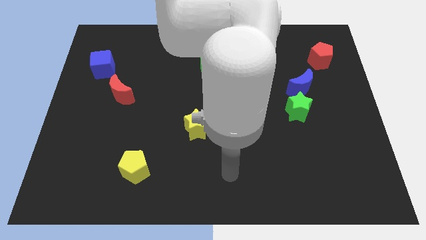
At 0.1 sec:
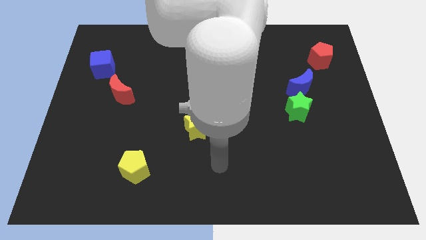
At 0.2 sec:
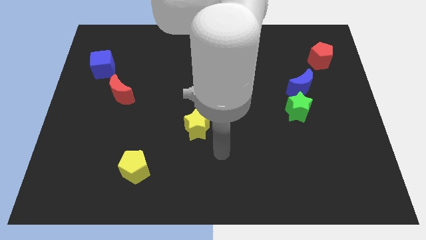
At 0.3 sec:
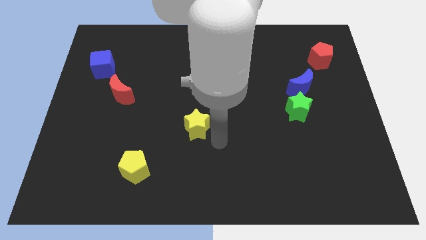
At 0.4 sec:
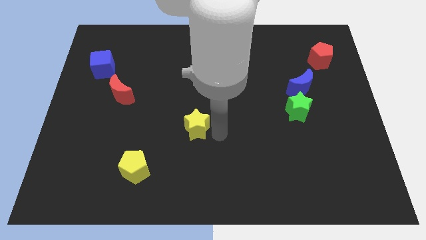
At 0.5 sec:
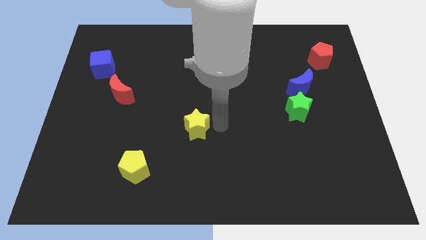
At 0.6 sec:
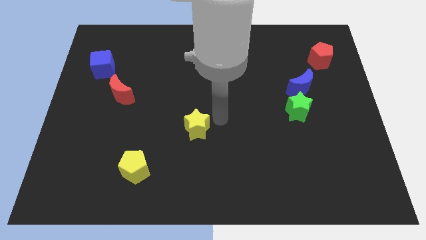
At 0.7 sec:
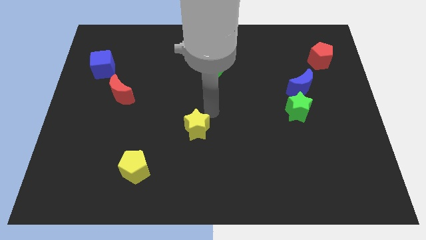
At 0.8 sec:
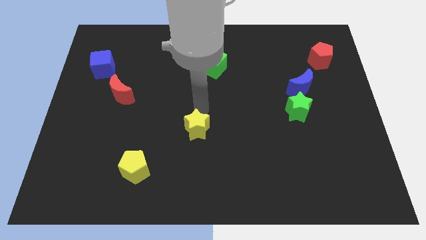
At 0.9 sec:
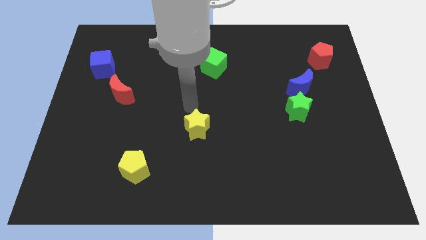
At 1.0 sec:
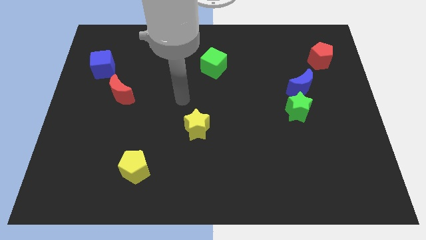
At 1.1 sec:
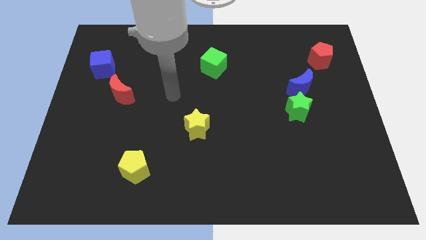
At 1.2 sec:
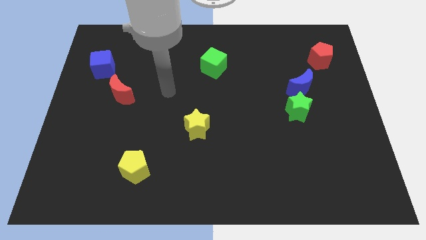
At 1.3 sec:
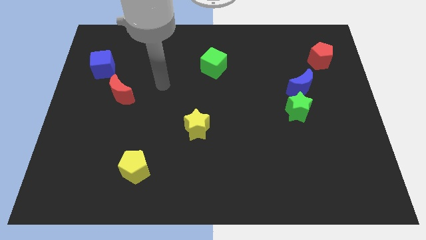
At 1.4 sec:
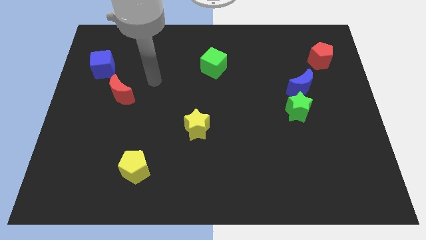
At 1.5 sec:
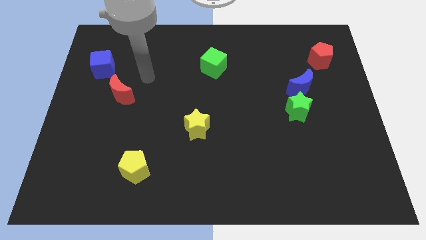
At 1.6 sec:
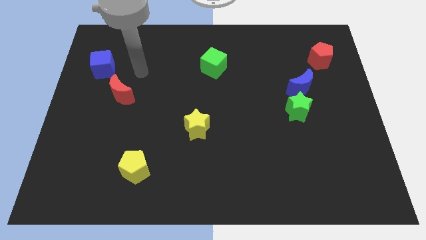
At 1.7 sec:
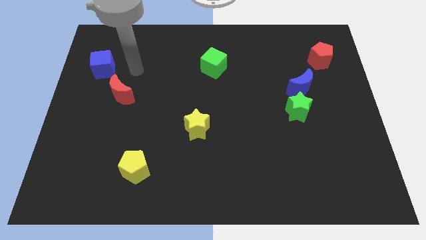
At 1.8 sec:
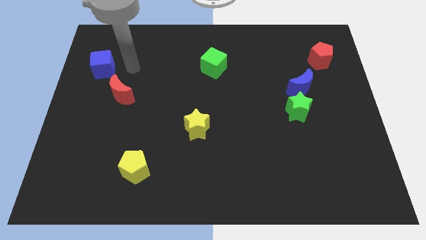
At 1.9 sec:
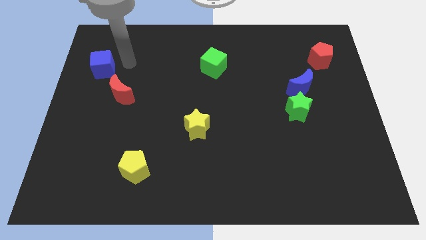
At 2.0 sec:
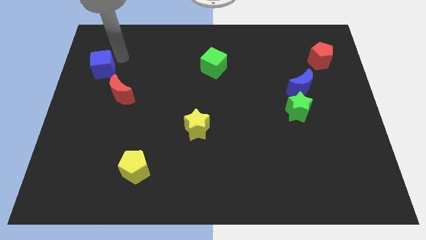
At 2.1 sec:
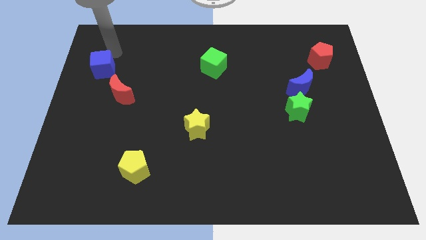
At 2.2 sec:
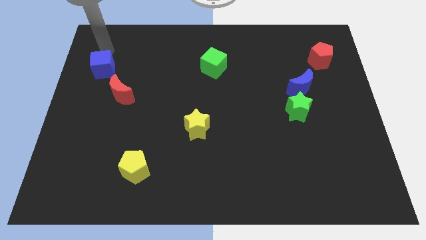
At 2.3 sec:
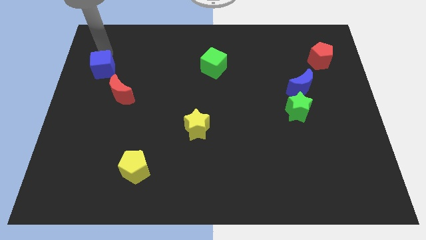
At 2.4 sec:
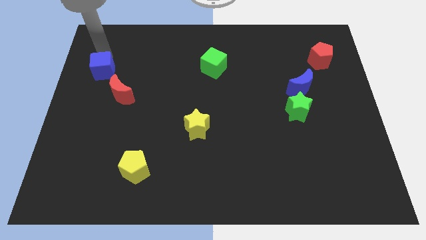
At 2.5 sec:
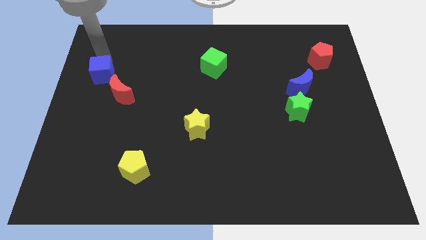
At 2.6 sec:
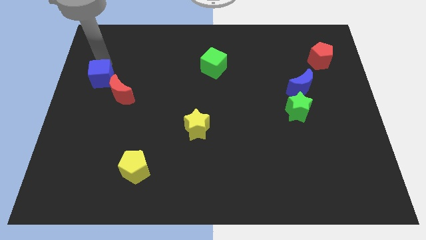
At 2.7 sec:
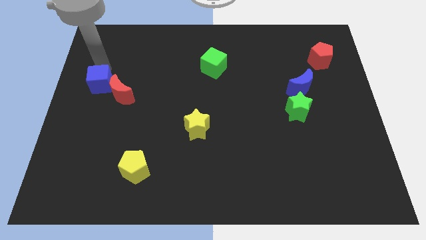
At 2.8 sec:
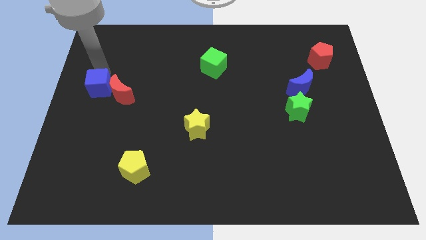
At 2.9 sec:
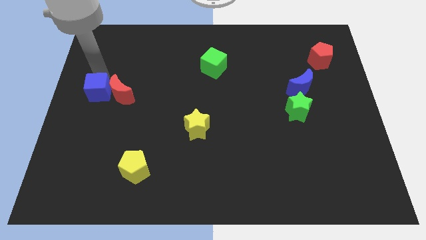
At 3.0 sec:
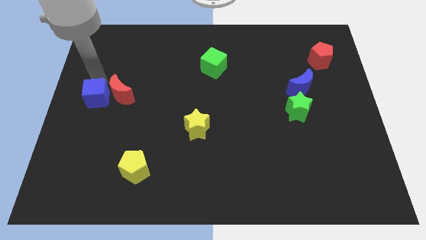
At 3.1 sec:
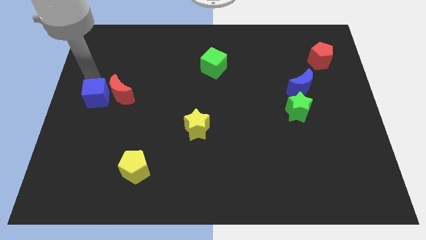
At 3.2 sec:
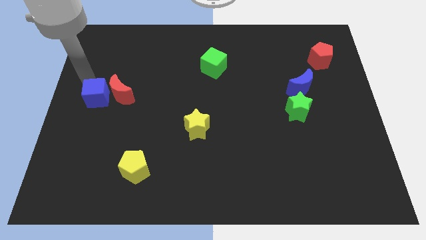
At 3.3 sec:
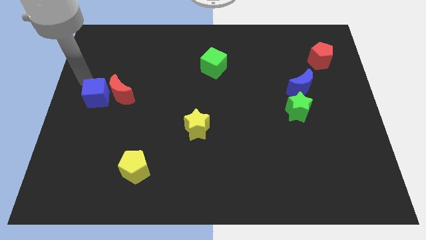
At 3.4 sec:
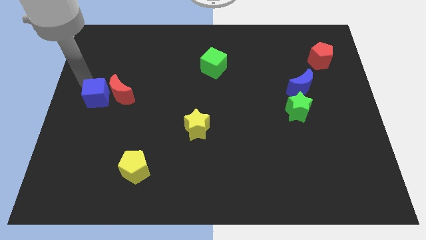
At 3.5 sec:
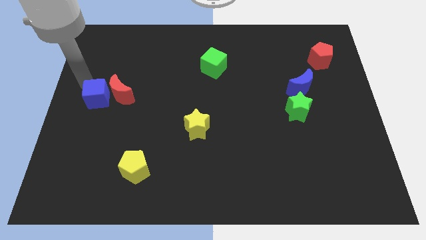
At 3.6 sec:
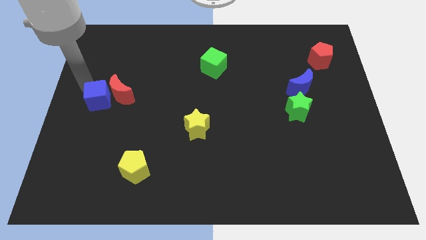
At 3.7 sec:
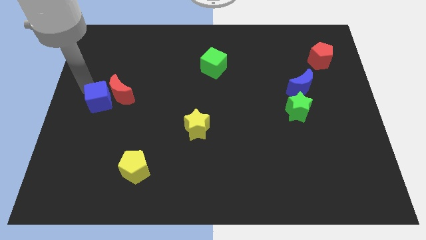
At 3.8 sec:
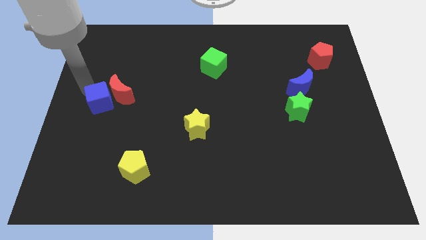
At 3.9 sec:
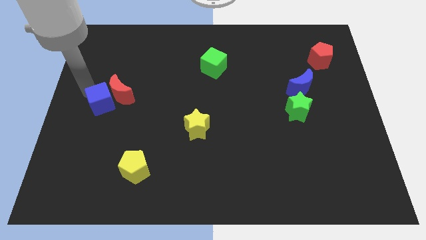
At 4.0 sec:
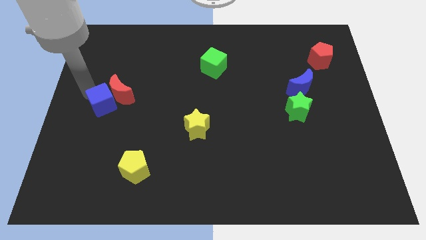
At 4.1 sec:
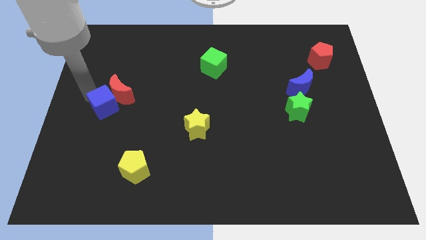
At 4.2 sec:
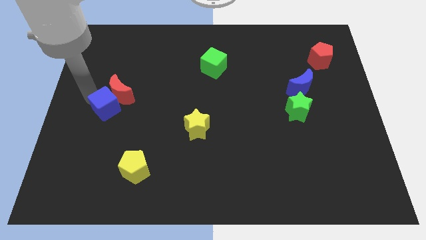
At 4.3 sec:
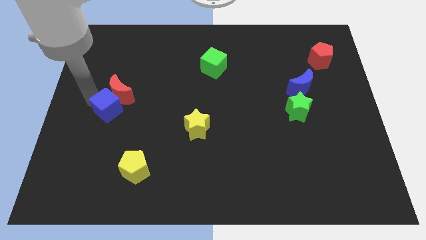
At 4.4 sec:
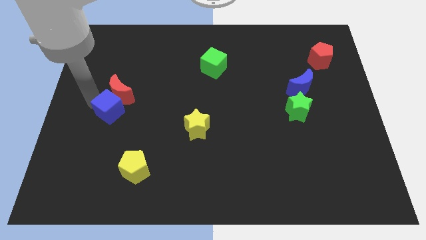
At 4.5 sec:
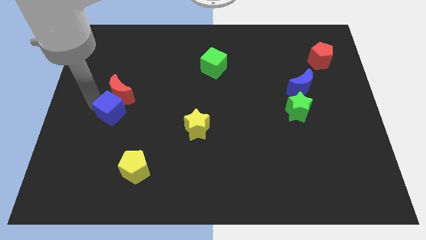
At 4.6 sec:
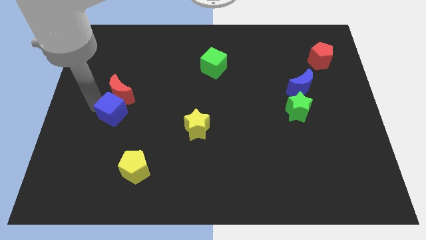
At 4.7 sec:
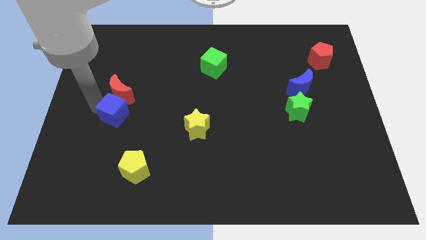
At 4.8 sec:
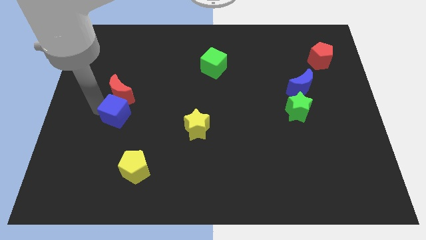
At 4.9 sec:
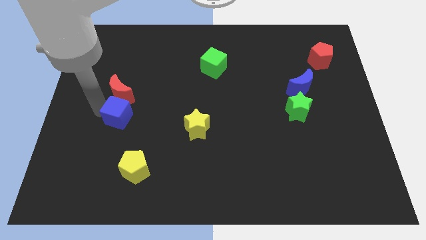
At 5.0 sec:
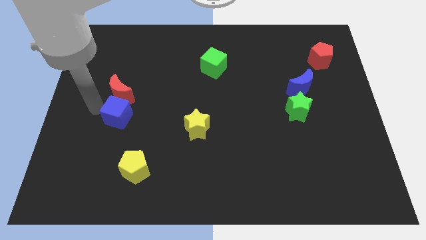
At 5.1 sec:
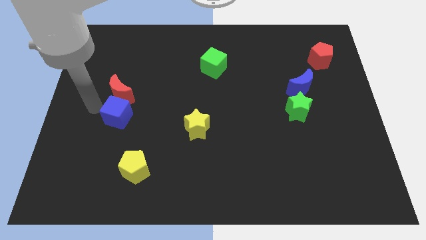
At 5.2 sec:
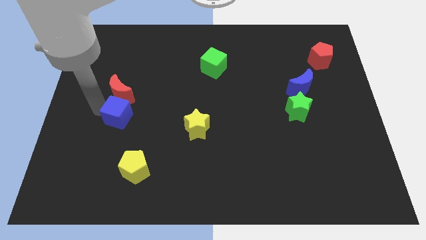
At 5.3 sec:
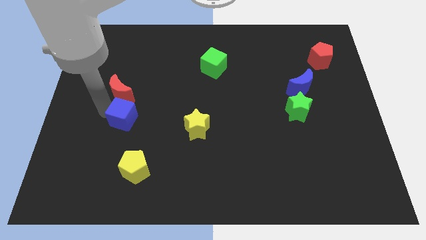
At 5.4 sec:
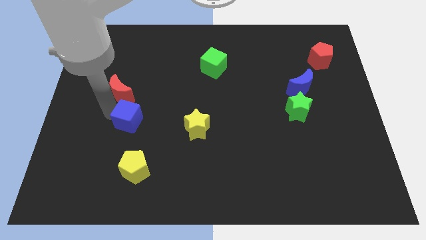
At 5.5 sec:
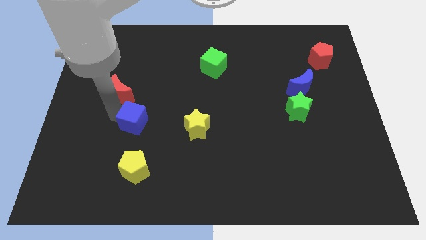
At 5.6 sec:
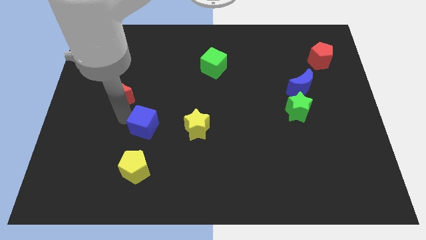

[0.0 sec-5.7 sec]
move the blue cube down and right

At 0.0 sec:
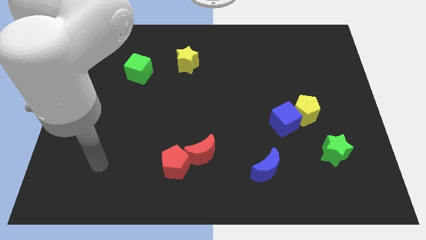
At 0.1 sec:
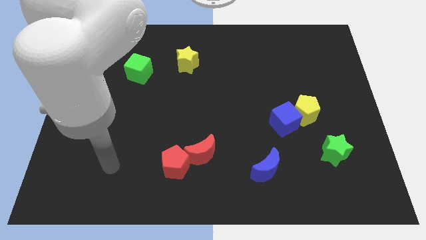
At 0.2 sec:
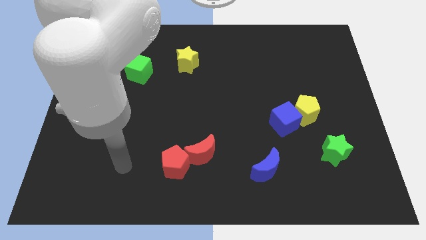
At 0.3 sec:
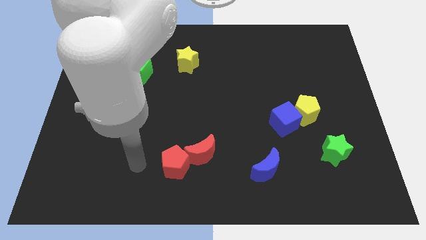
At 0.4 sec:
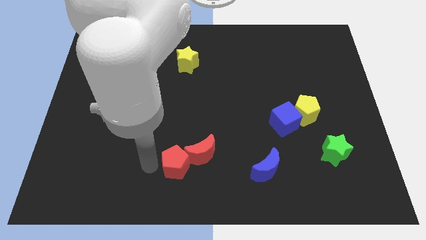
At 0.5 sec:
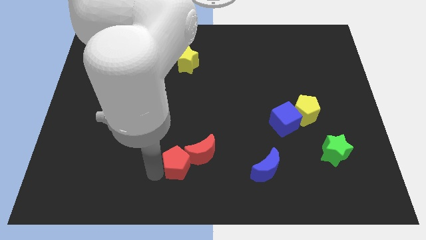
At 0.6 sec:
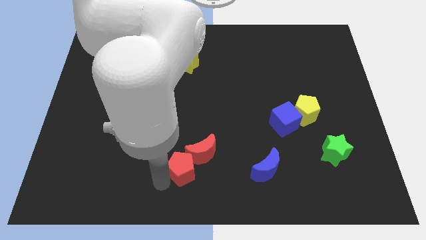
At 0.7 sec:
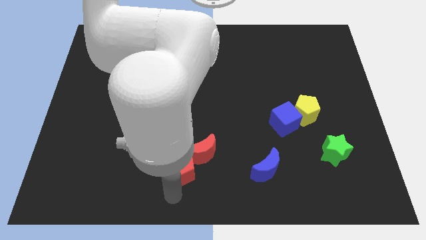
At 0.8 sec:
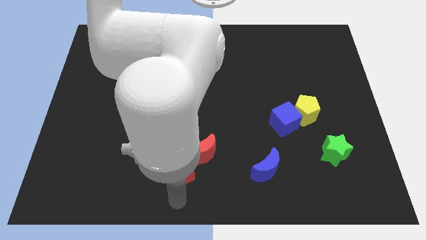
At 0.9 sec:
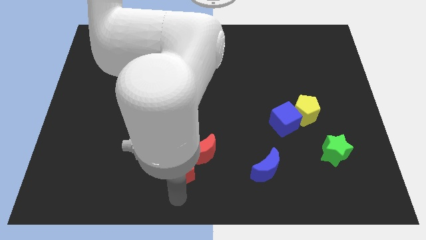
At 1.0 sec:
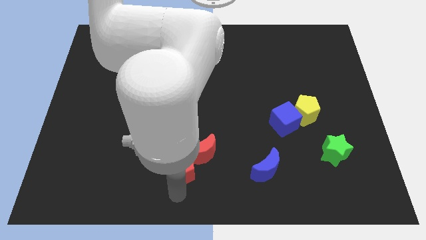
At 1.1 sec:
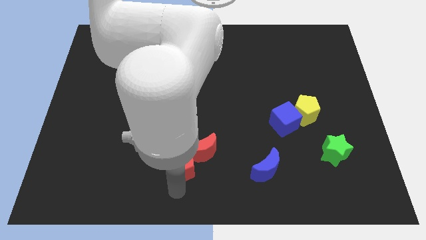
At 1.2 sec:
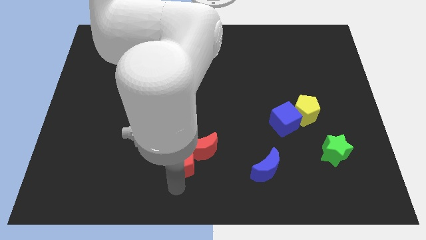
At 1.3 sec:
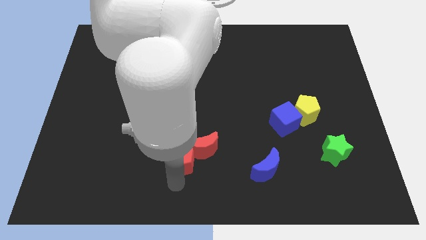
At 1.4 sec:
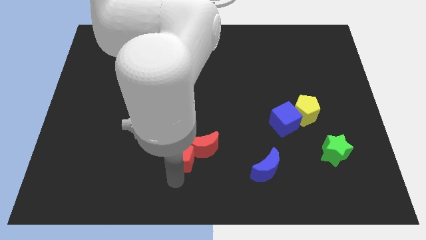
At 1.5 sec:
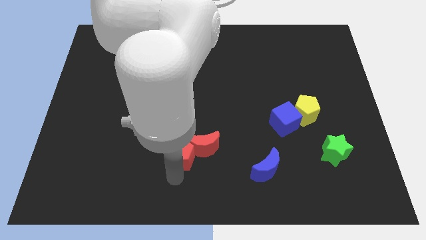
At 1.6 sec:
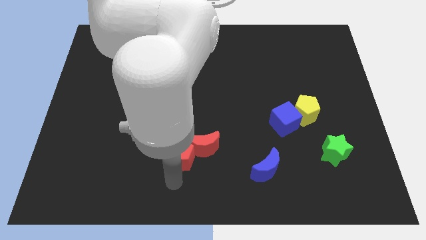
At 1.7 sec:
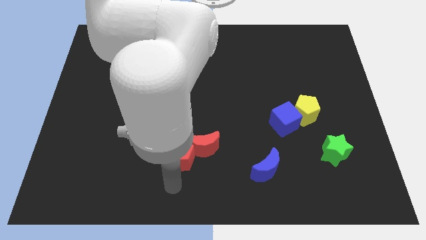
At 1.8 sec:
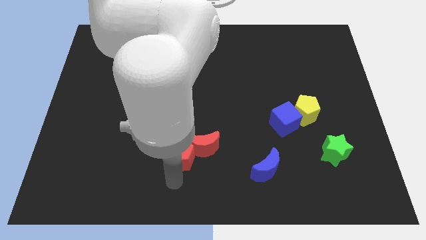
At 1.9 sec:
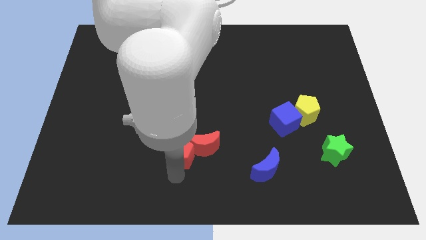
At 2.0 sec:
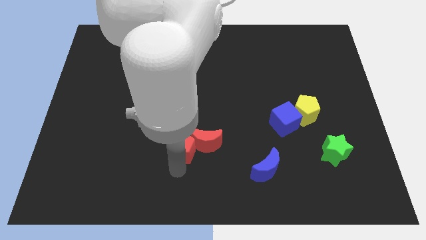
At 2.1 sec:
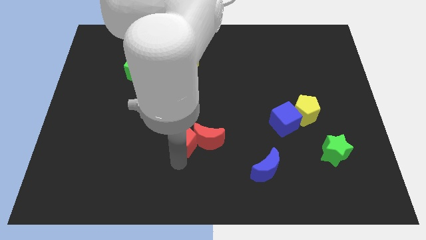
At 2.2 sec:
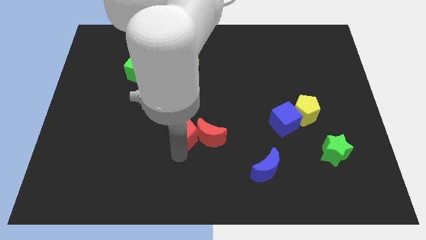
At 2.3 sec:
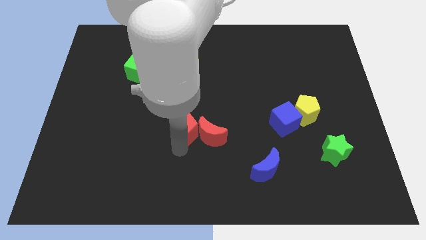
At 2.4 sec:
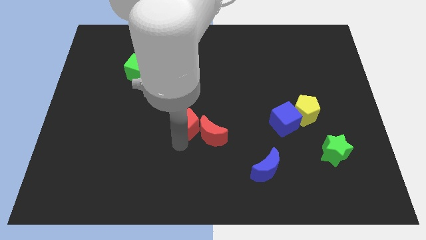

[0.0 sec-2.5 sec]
slide the red pentagon a little upwards and to the right
